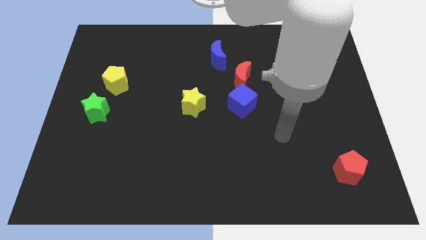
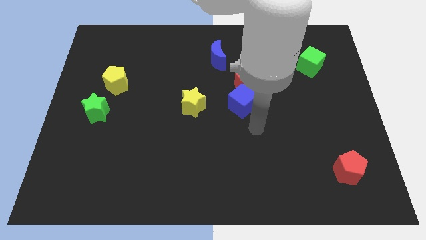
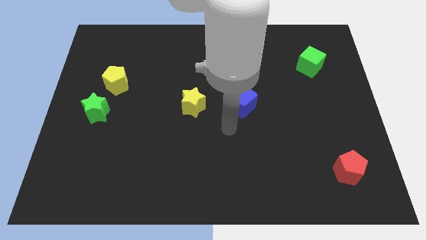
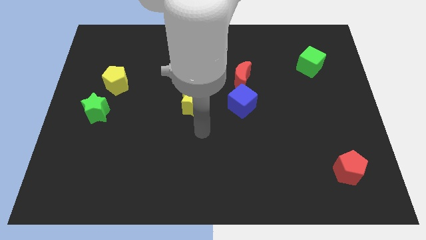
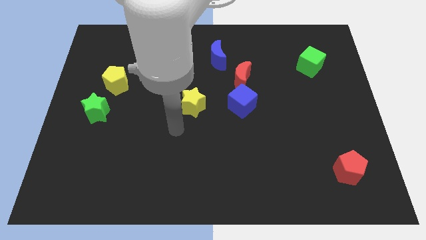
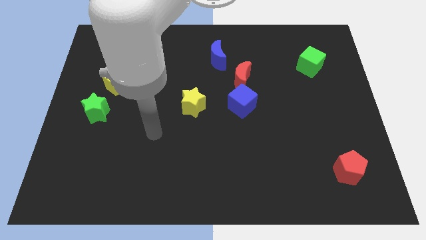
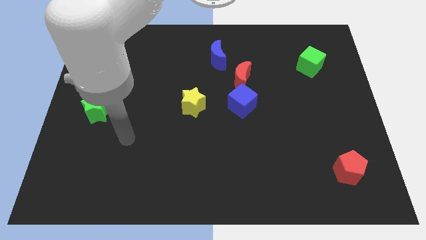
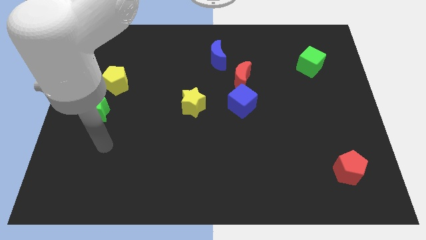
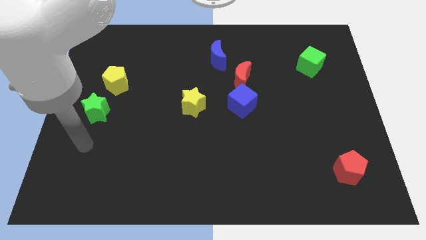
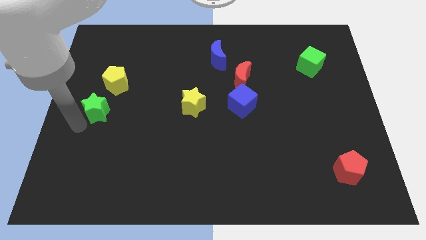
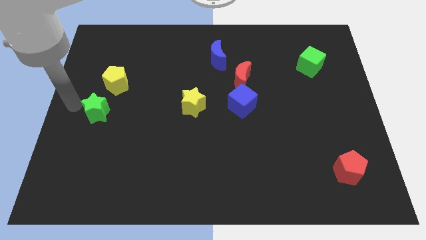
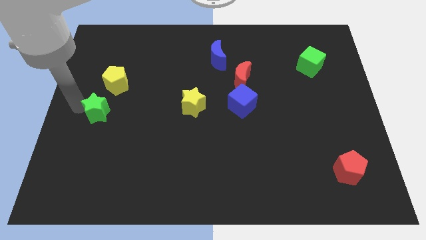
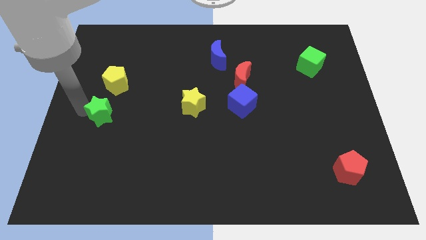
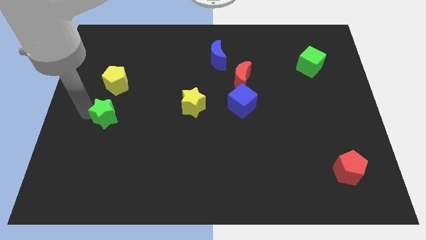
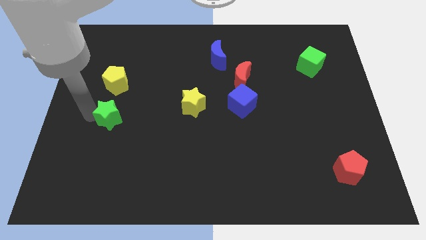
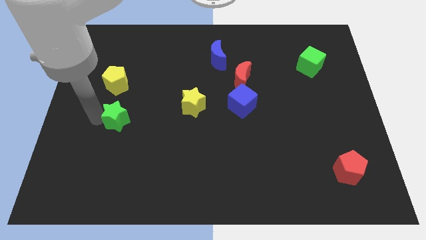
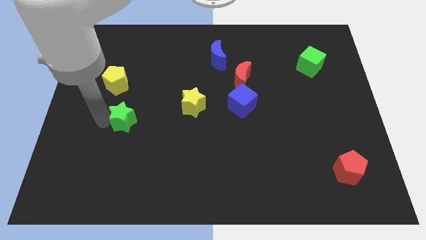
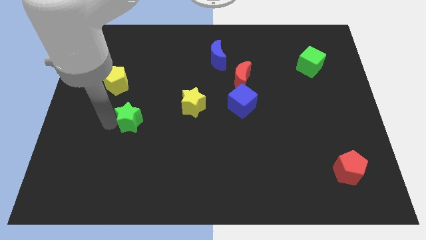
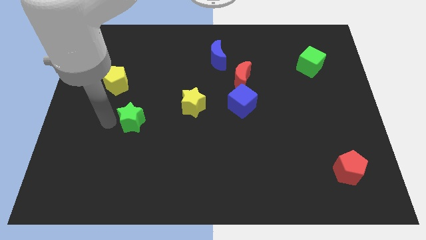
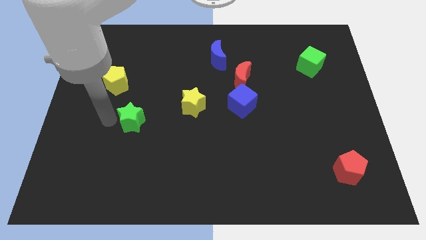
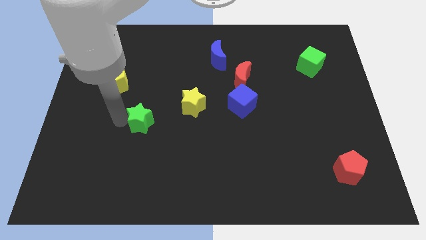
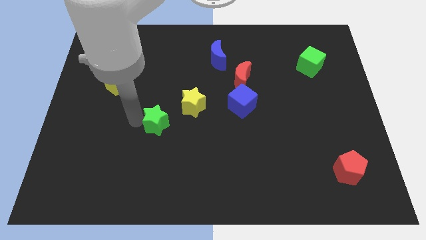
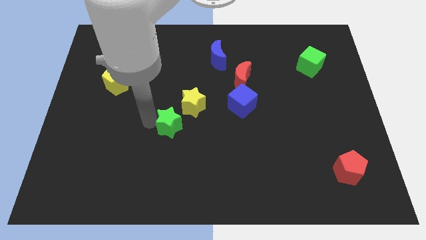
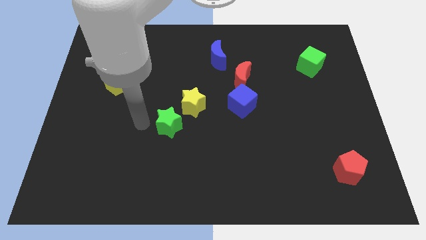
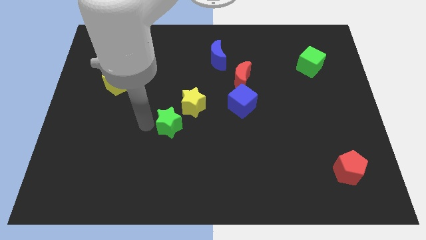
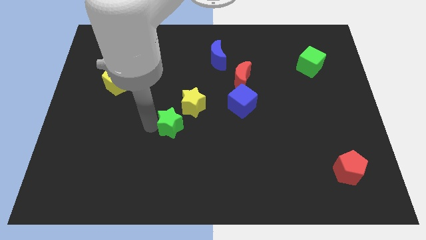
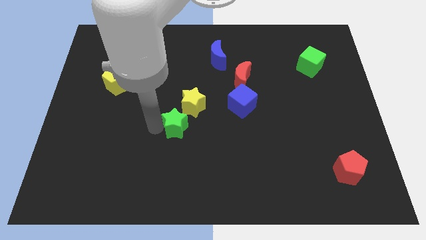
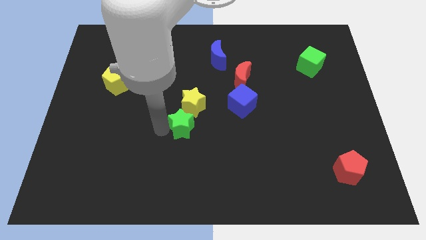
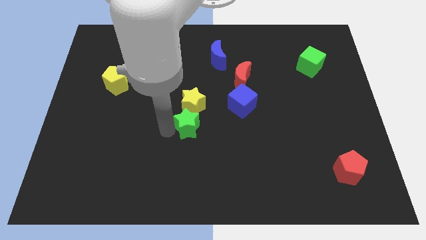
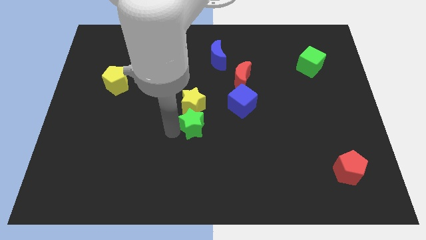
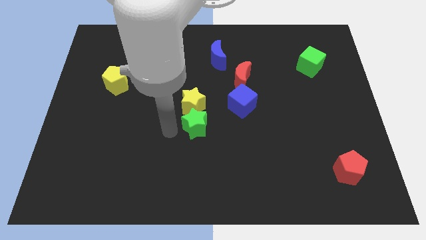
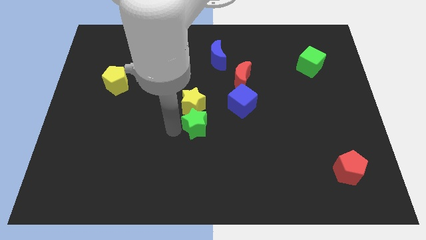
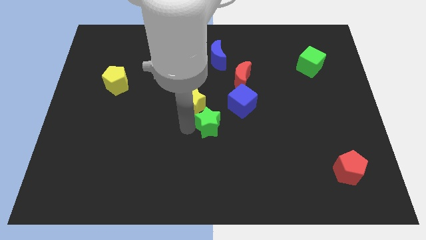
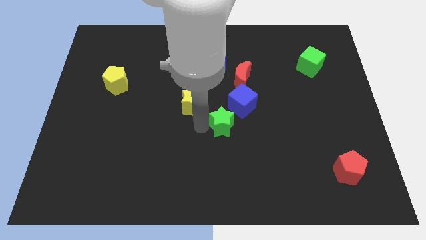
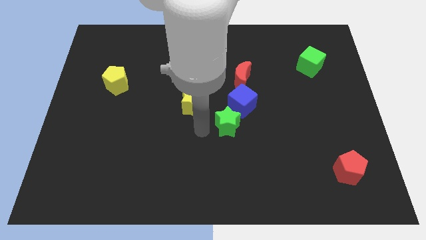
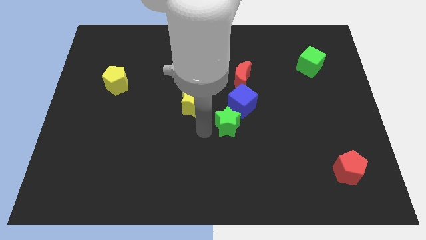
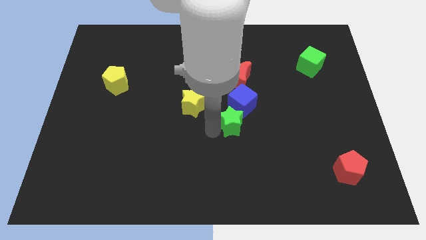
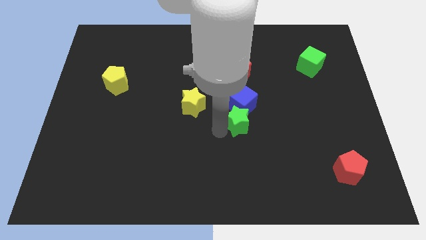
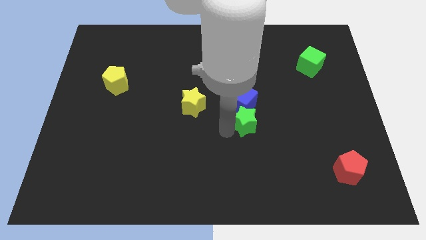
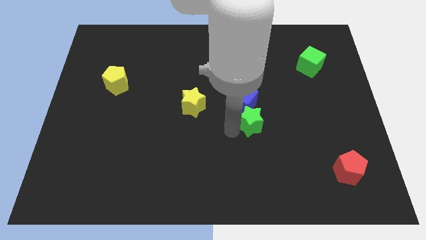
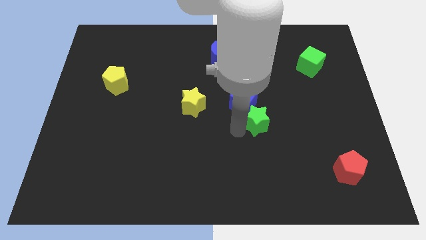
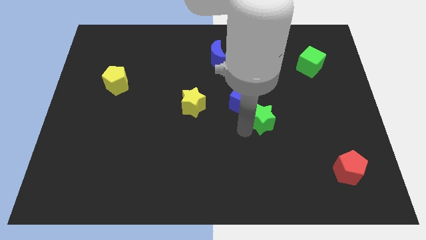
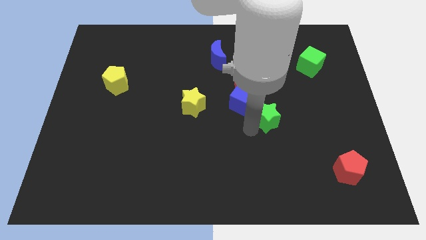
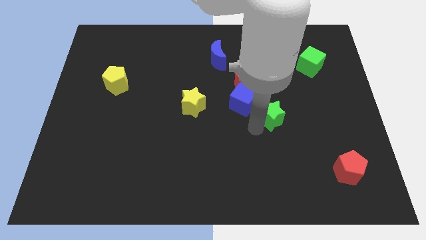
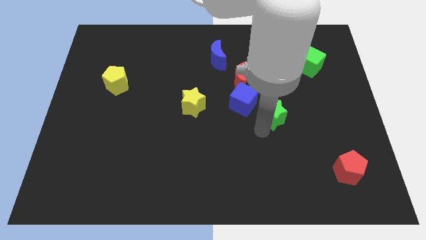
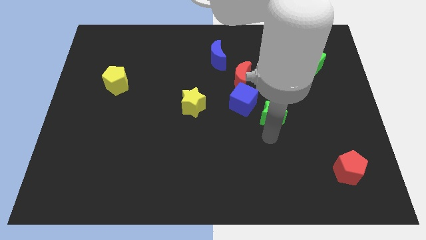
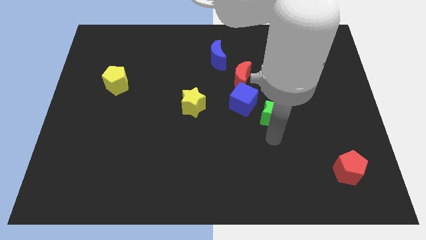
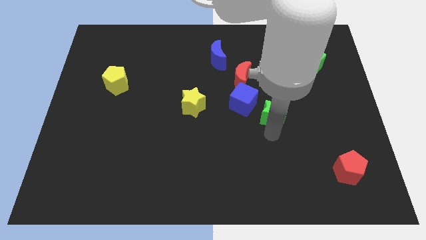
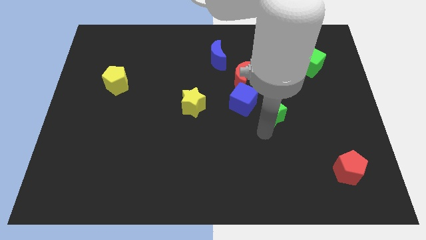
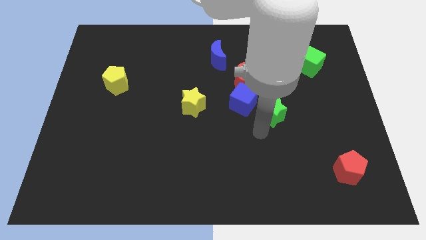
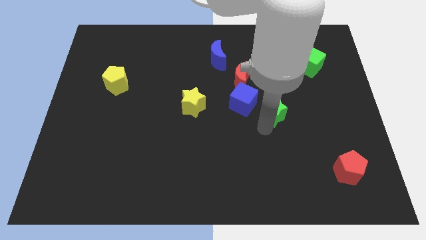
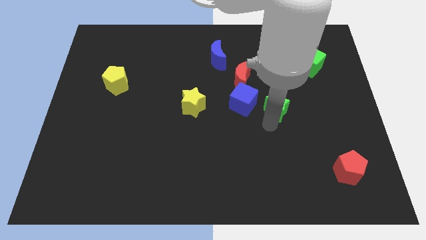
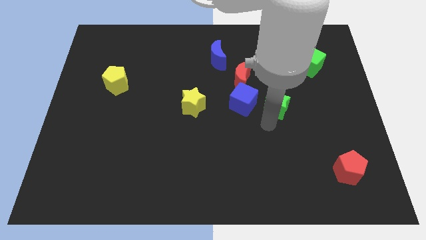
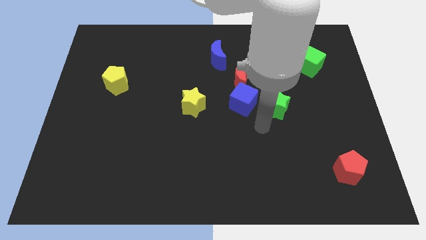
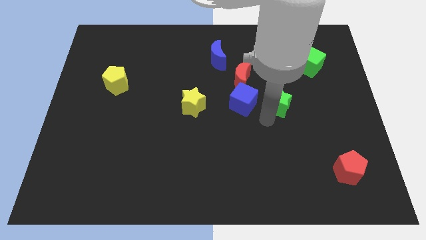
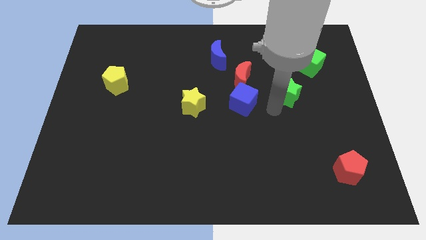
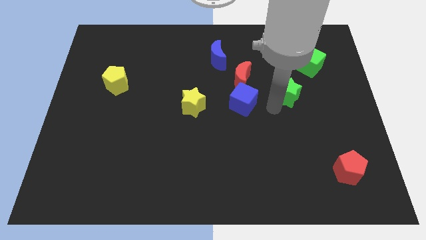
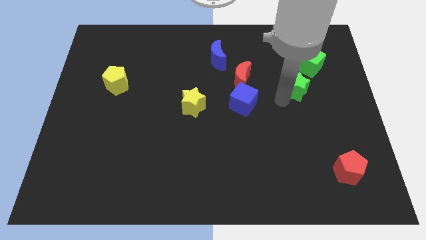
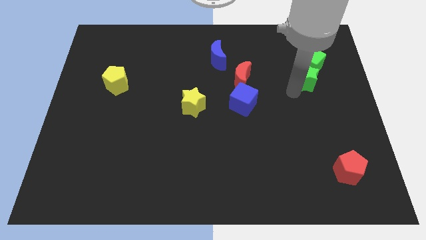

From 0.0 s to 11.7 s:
move the green star close to the green cube
